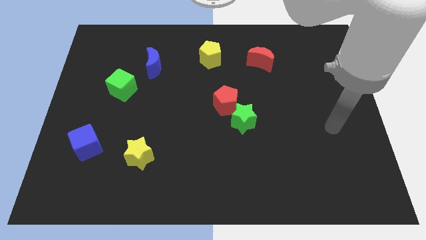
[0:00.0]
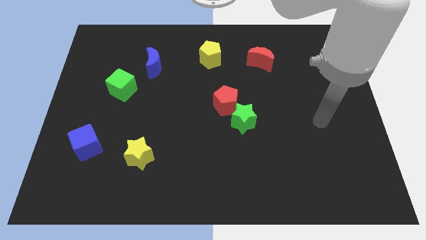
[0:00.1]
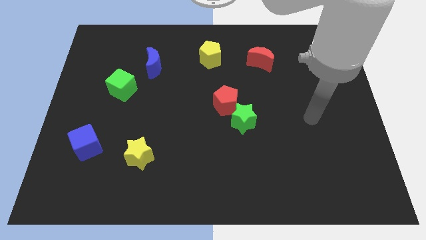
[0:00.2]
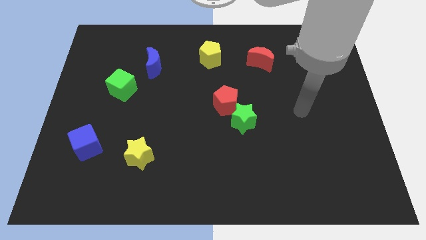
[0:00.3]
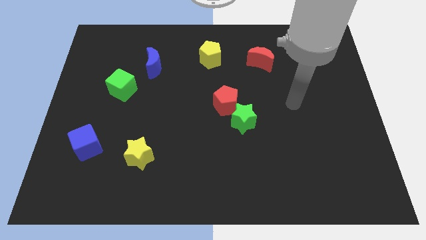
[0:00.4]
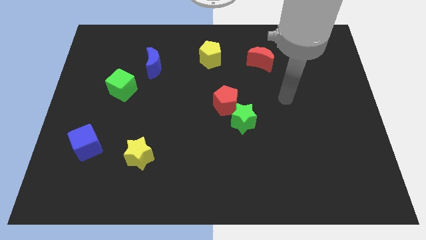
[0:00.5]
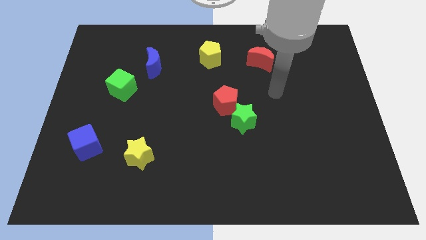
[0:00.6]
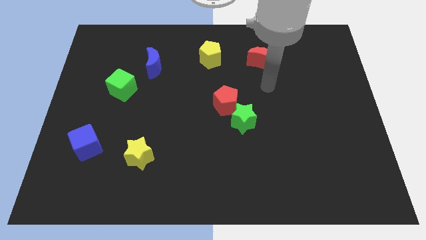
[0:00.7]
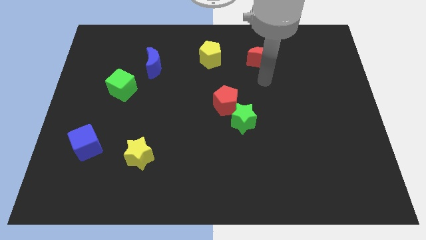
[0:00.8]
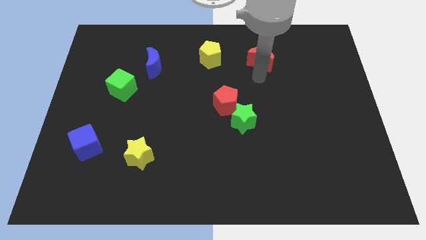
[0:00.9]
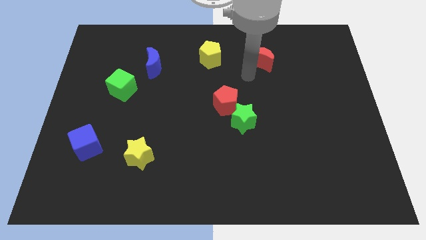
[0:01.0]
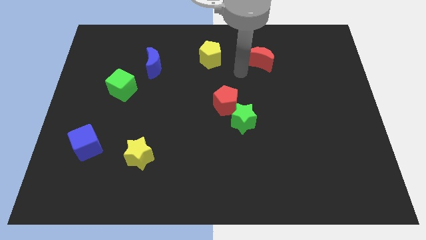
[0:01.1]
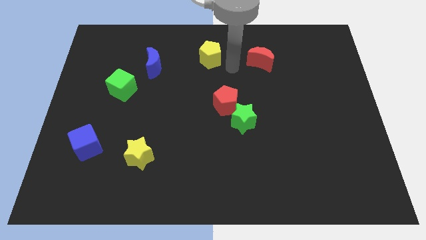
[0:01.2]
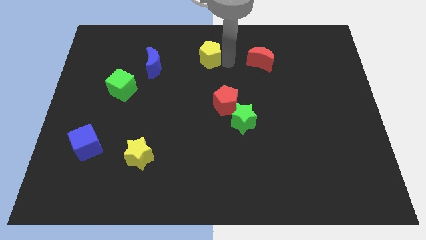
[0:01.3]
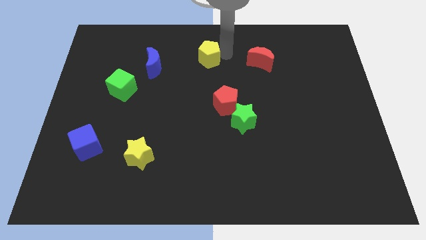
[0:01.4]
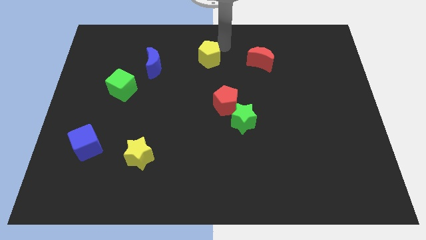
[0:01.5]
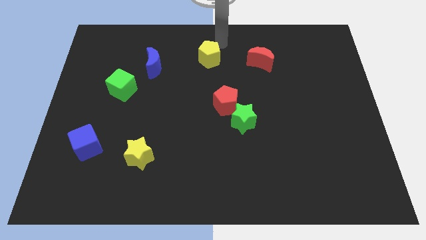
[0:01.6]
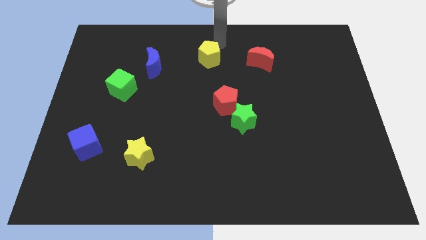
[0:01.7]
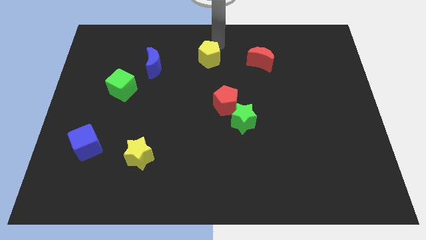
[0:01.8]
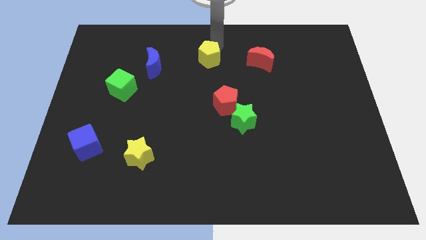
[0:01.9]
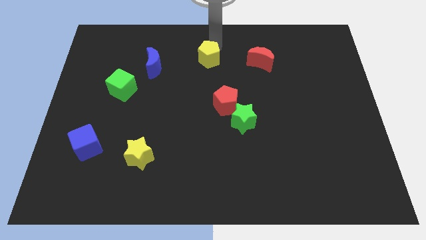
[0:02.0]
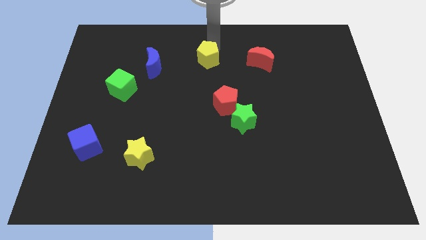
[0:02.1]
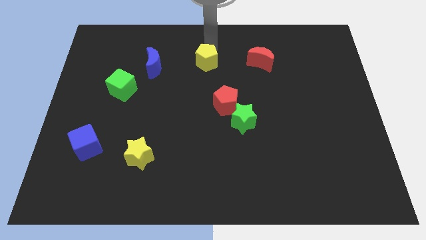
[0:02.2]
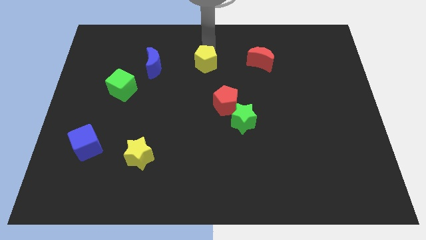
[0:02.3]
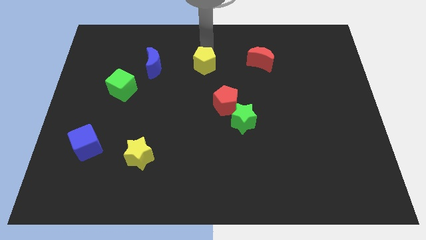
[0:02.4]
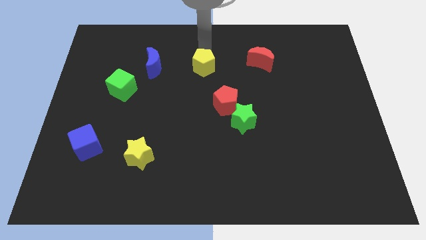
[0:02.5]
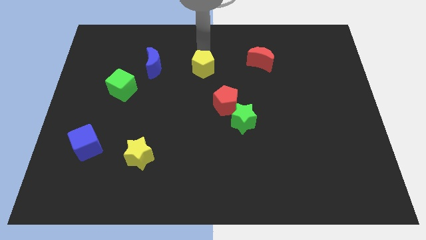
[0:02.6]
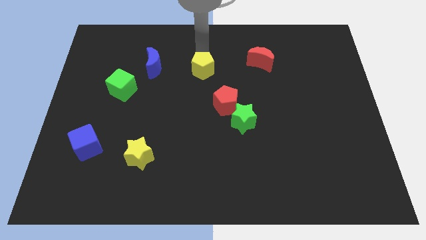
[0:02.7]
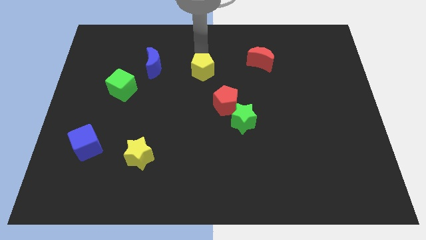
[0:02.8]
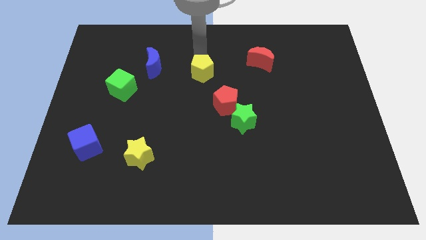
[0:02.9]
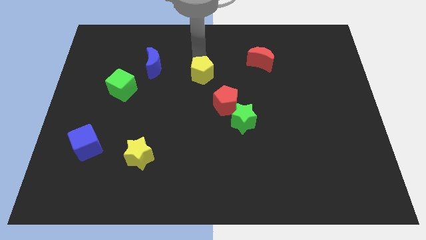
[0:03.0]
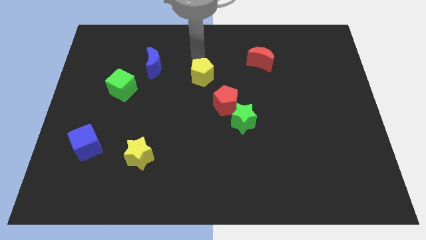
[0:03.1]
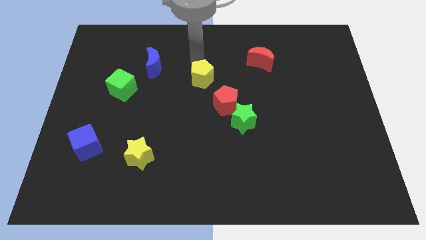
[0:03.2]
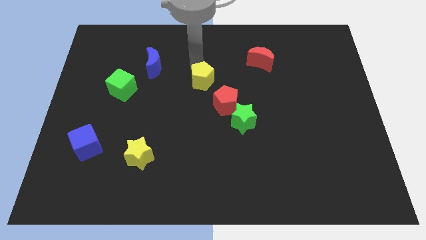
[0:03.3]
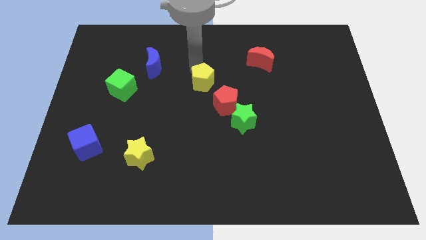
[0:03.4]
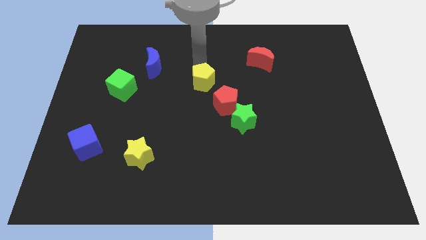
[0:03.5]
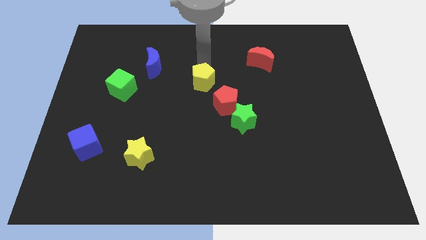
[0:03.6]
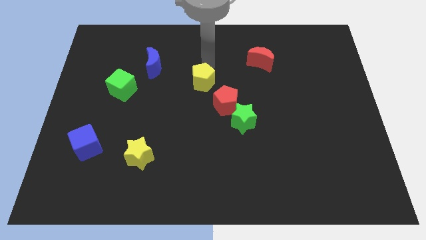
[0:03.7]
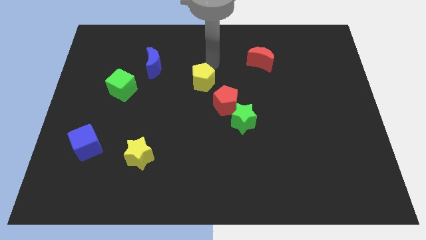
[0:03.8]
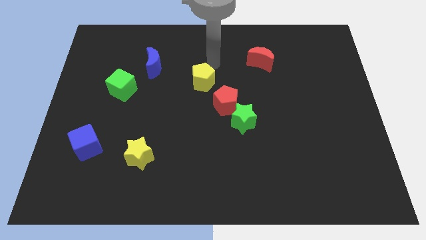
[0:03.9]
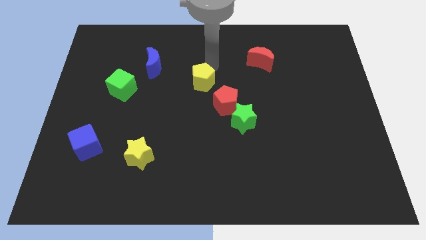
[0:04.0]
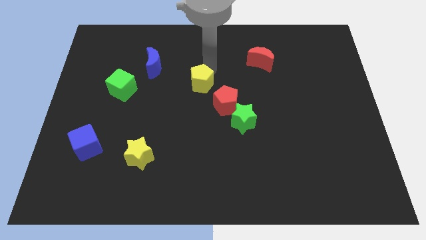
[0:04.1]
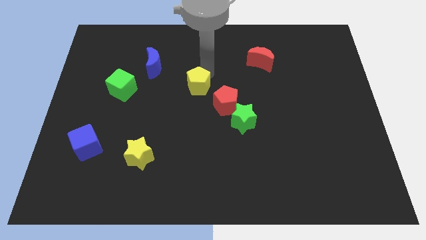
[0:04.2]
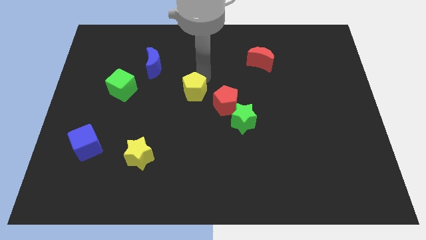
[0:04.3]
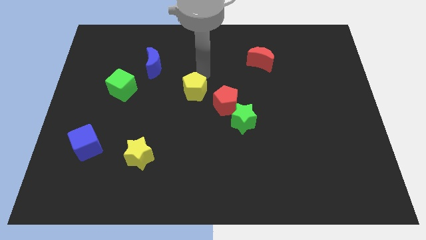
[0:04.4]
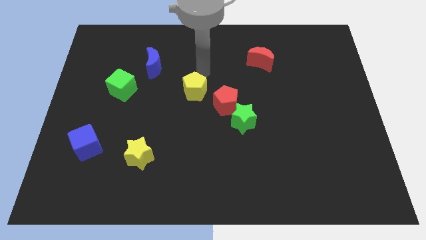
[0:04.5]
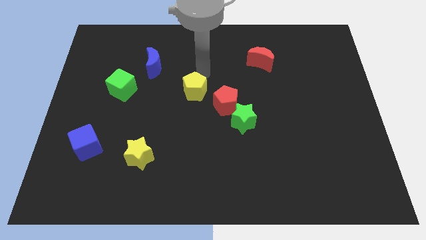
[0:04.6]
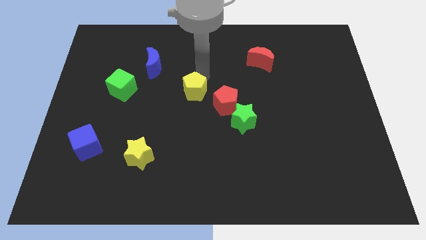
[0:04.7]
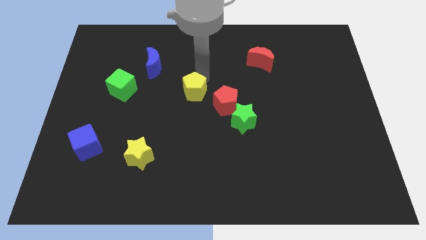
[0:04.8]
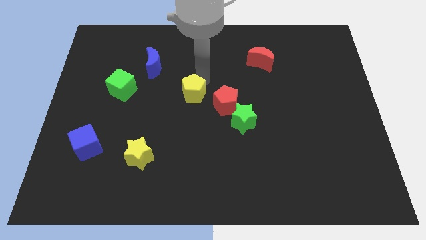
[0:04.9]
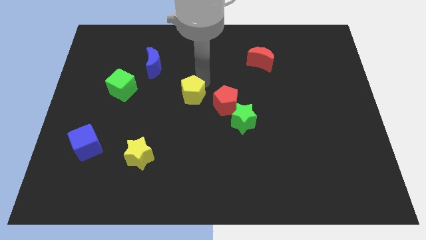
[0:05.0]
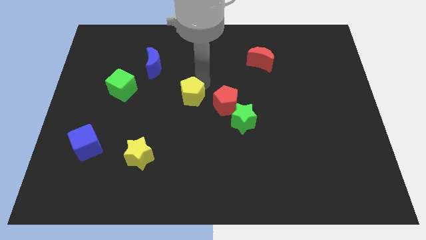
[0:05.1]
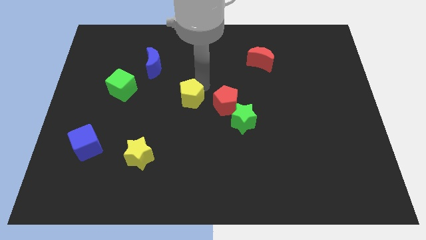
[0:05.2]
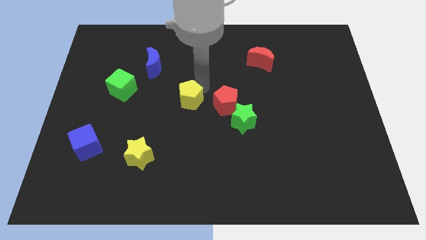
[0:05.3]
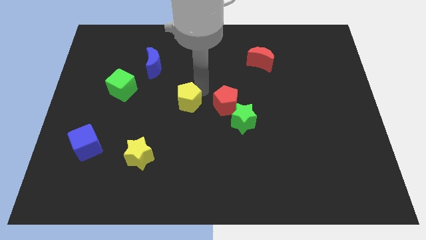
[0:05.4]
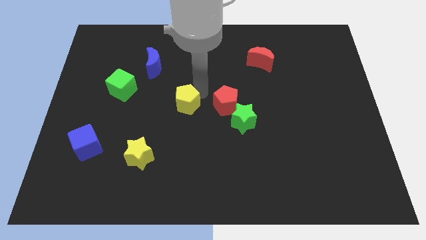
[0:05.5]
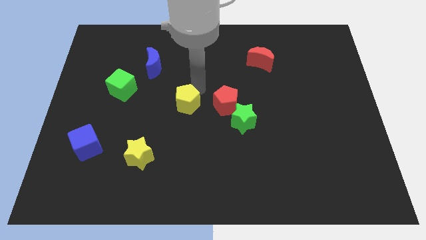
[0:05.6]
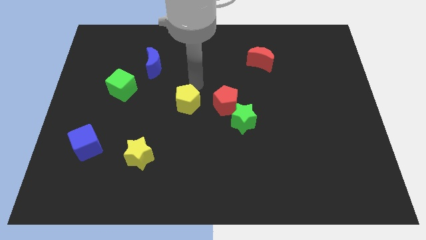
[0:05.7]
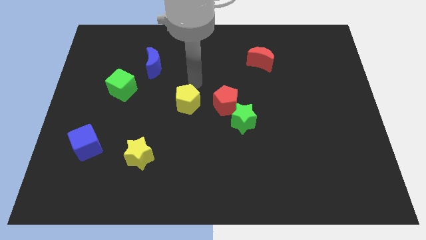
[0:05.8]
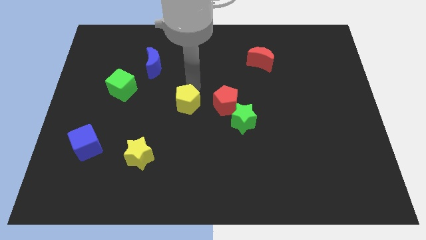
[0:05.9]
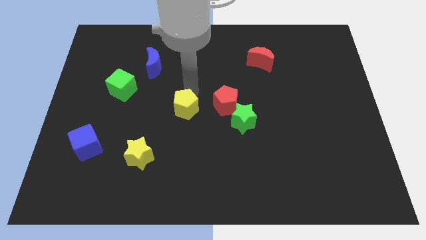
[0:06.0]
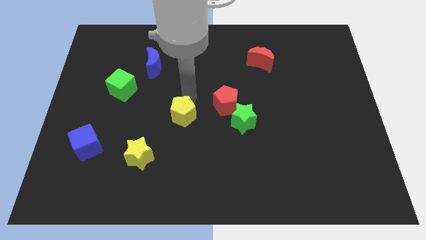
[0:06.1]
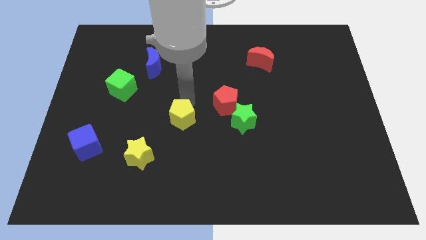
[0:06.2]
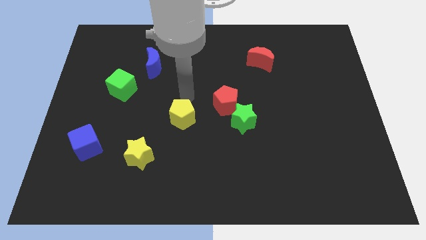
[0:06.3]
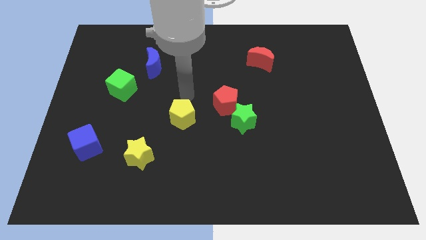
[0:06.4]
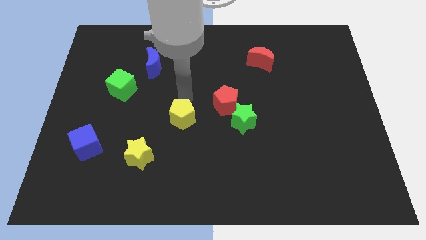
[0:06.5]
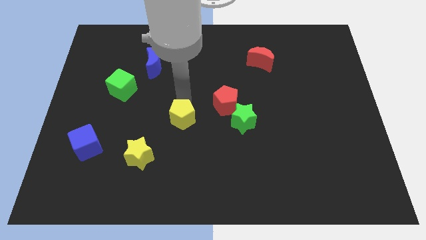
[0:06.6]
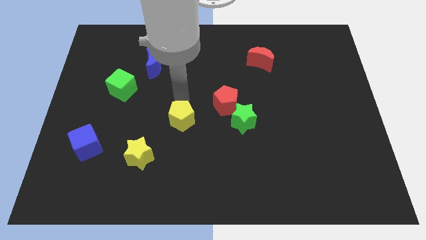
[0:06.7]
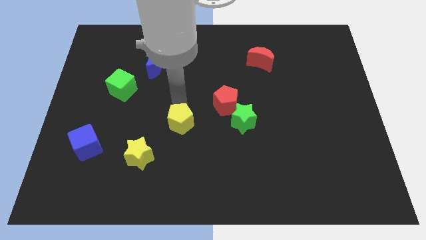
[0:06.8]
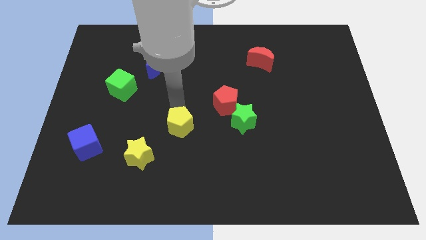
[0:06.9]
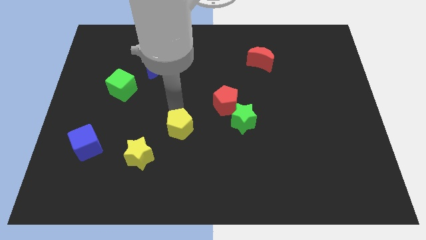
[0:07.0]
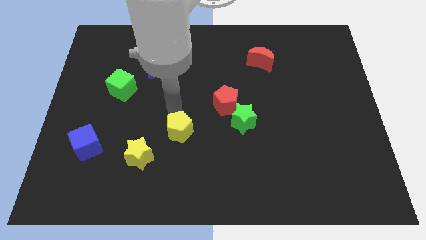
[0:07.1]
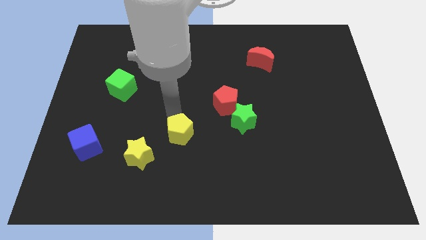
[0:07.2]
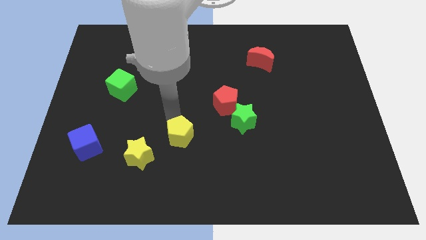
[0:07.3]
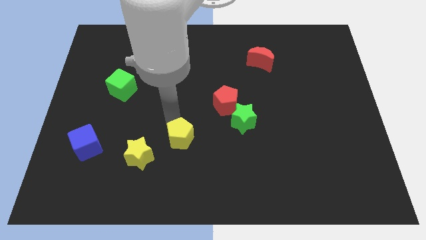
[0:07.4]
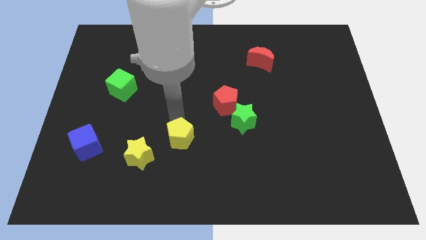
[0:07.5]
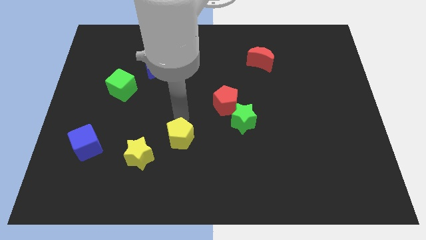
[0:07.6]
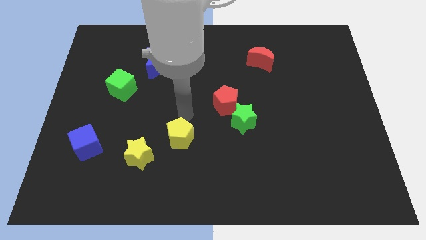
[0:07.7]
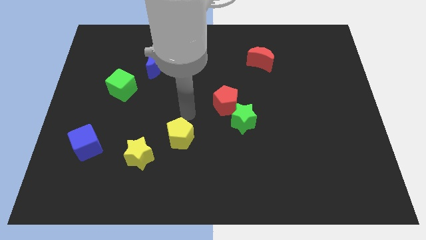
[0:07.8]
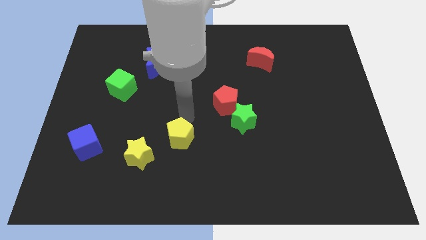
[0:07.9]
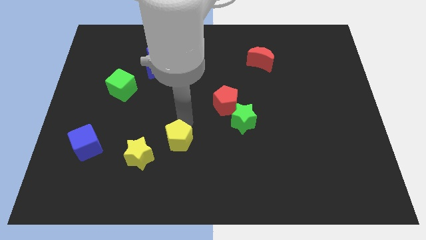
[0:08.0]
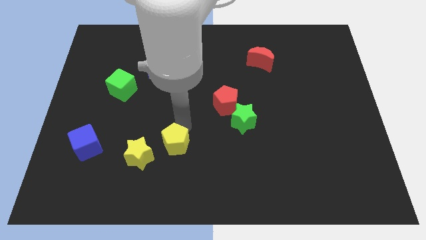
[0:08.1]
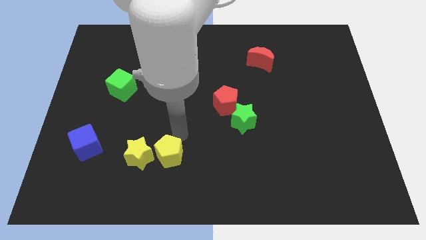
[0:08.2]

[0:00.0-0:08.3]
push the yellow pentagon diagonally down and to the right of the yellow star
